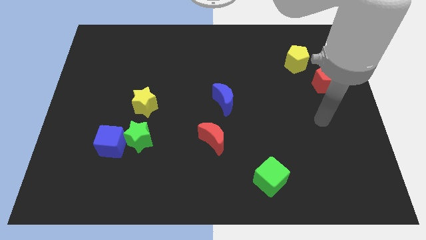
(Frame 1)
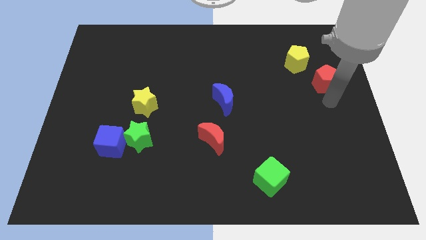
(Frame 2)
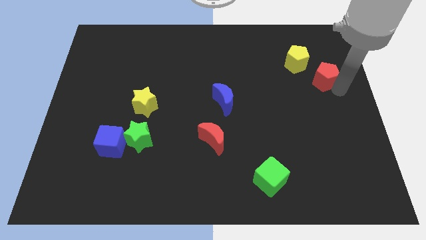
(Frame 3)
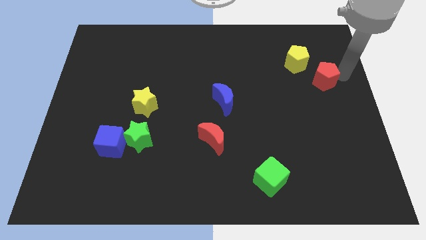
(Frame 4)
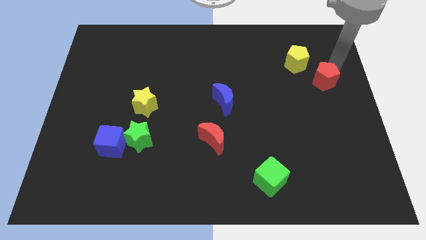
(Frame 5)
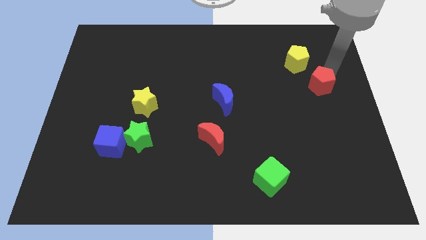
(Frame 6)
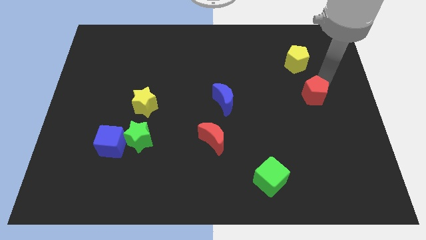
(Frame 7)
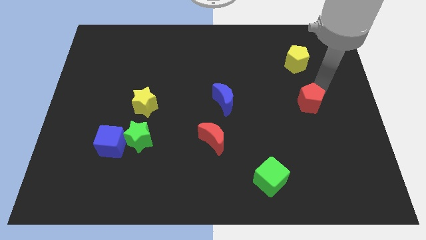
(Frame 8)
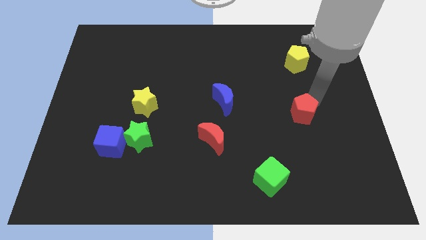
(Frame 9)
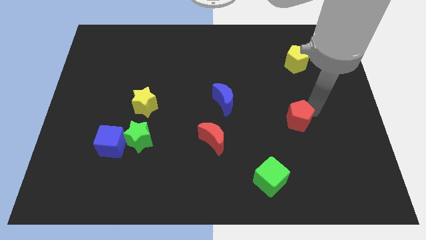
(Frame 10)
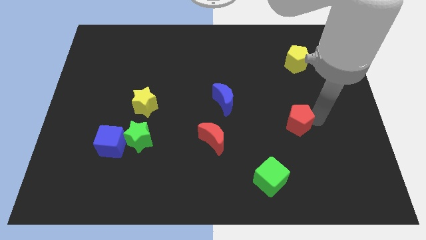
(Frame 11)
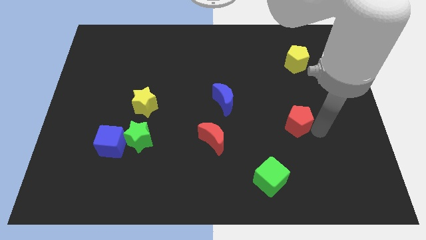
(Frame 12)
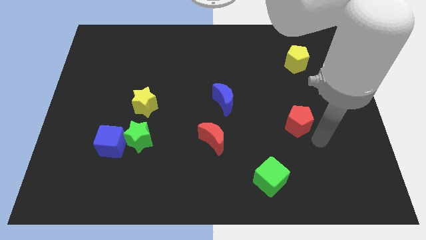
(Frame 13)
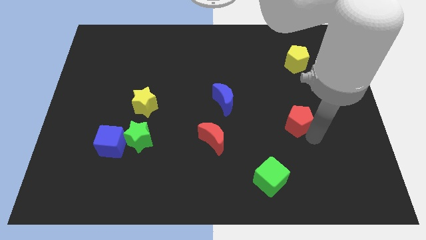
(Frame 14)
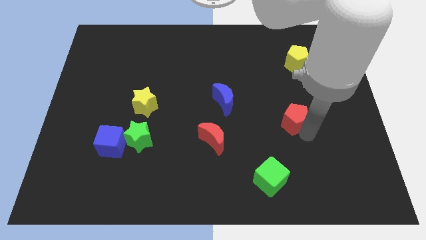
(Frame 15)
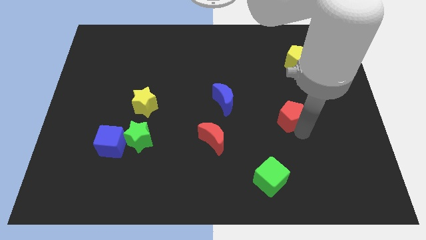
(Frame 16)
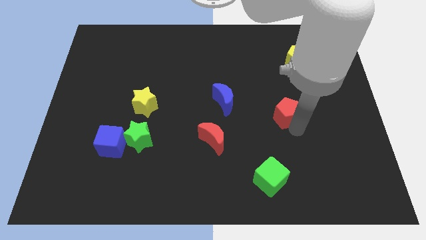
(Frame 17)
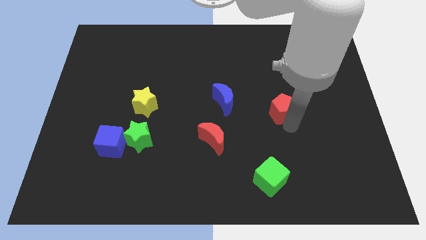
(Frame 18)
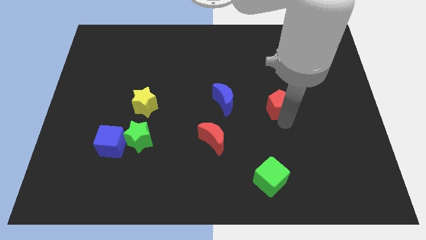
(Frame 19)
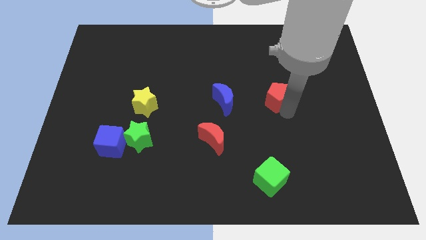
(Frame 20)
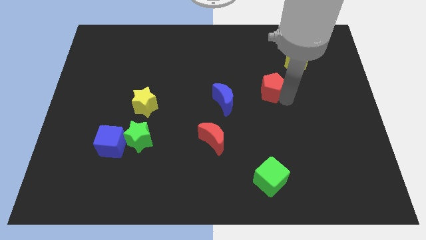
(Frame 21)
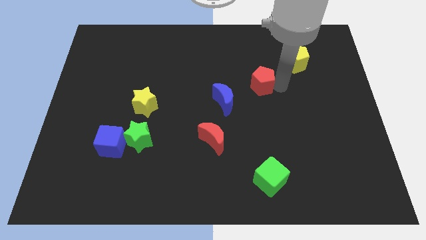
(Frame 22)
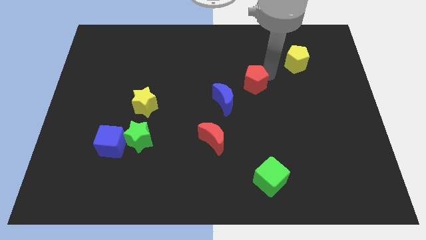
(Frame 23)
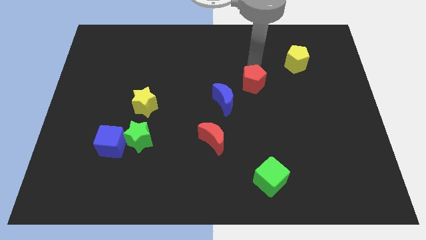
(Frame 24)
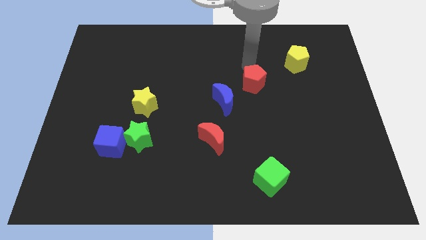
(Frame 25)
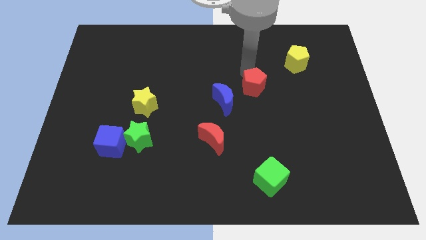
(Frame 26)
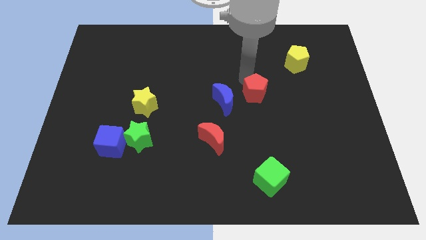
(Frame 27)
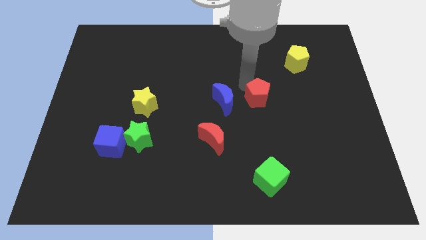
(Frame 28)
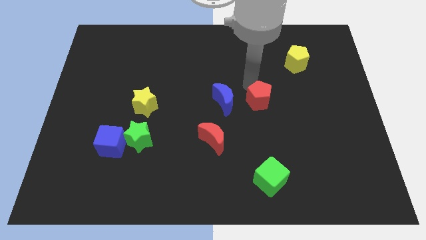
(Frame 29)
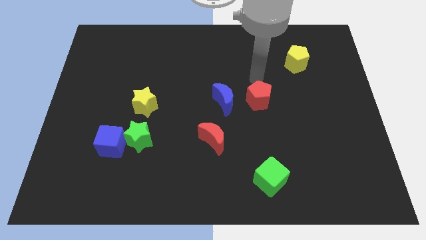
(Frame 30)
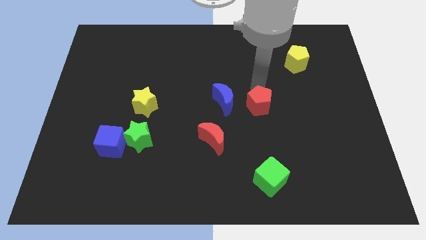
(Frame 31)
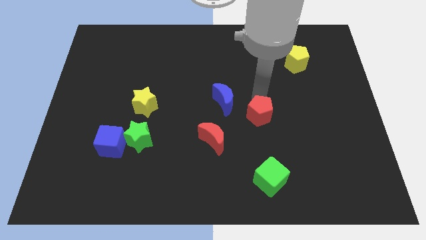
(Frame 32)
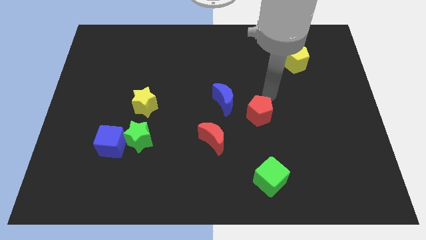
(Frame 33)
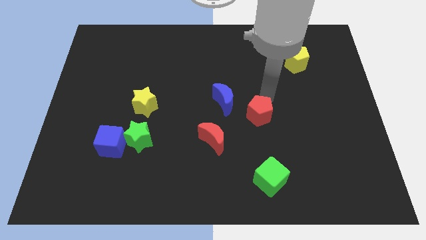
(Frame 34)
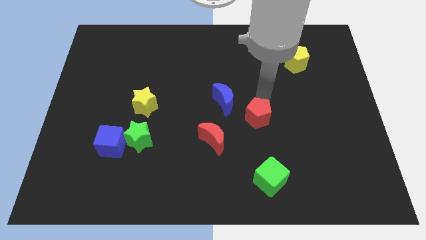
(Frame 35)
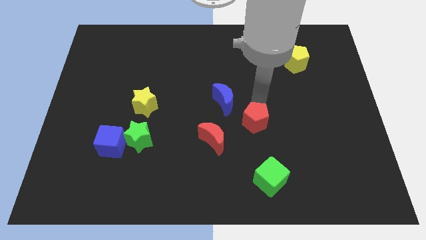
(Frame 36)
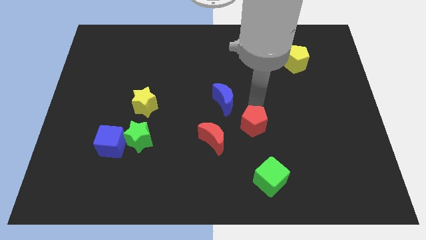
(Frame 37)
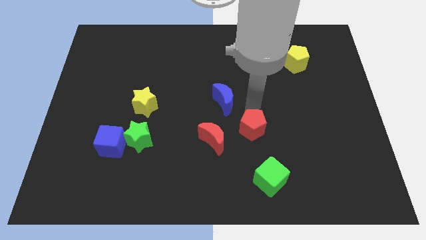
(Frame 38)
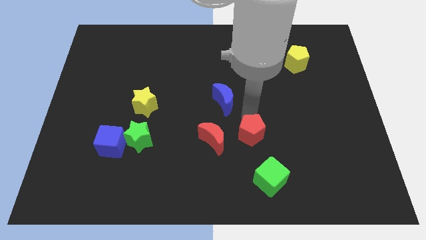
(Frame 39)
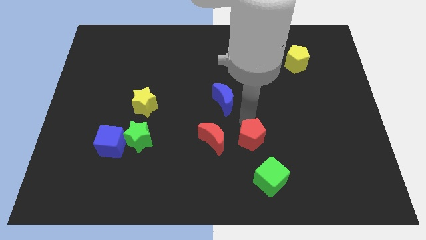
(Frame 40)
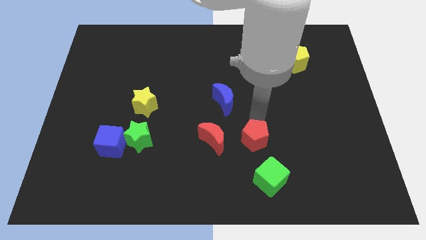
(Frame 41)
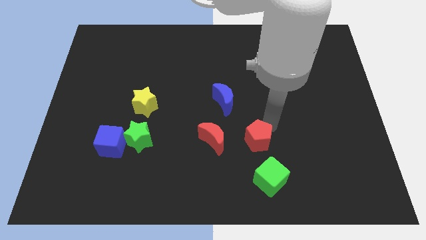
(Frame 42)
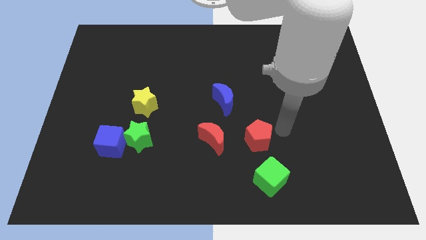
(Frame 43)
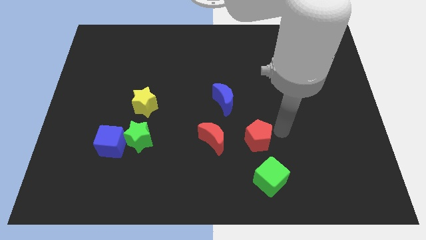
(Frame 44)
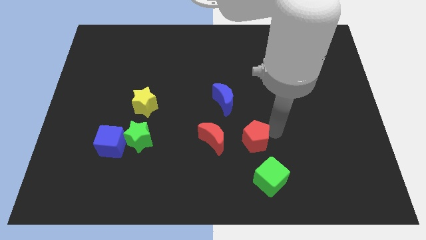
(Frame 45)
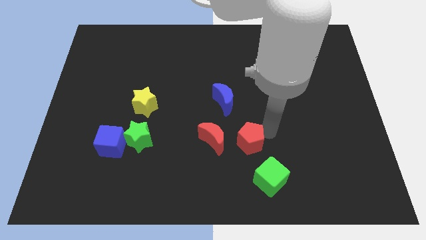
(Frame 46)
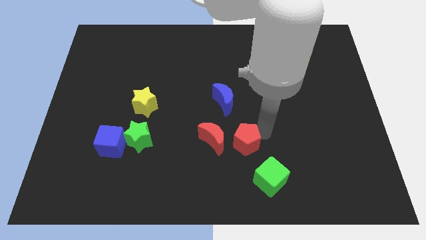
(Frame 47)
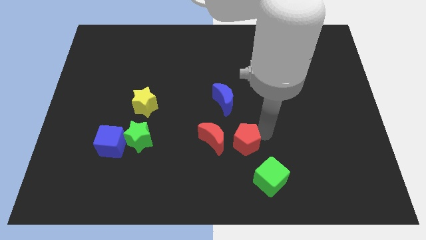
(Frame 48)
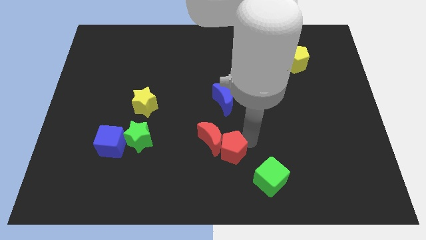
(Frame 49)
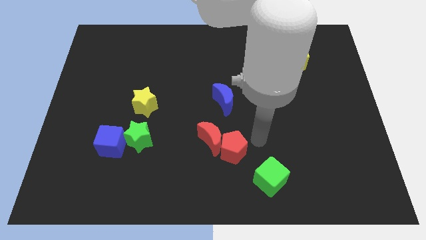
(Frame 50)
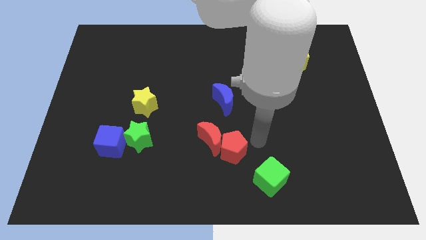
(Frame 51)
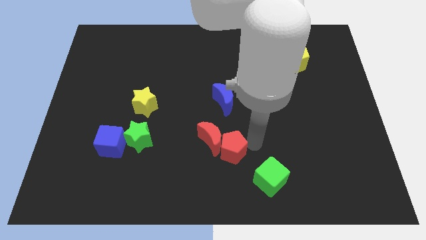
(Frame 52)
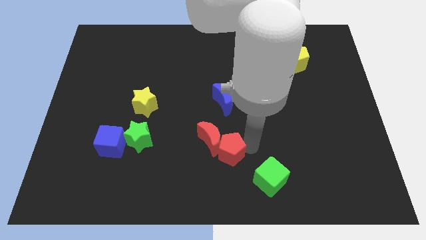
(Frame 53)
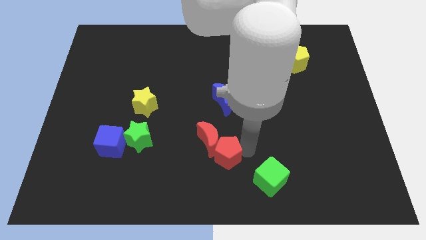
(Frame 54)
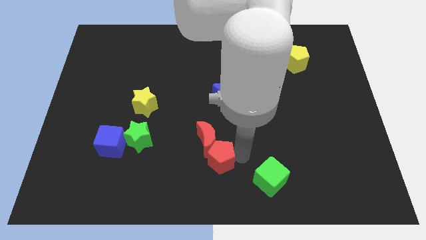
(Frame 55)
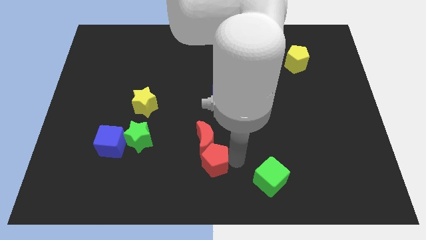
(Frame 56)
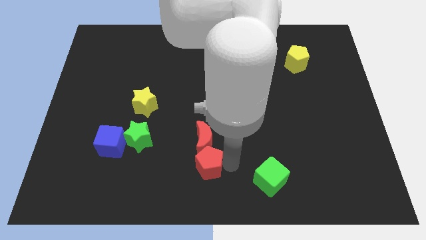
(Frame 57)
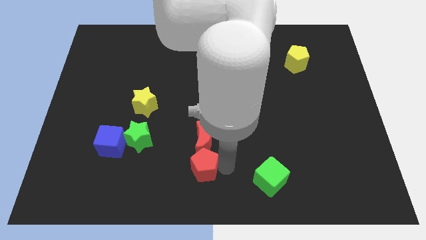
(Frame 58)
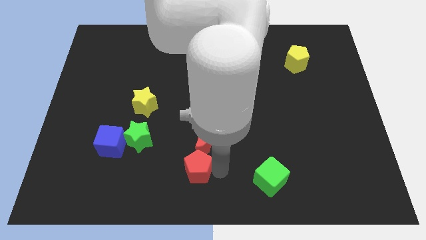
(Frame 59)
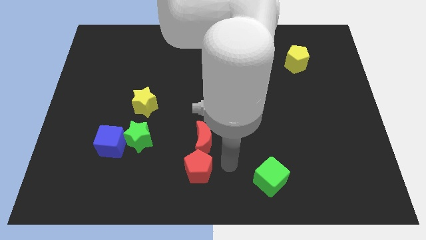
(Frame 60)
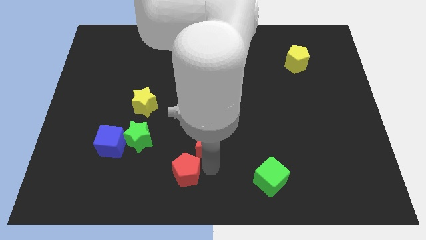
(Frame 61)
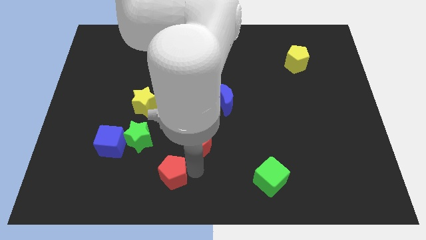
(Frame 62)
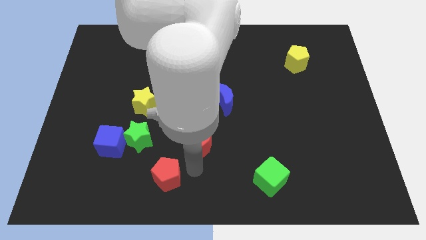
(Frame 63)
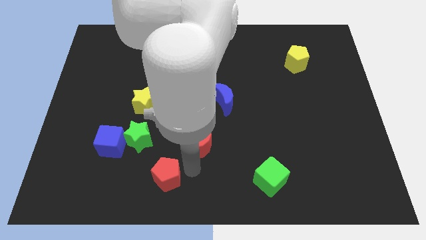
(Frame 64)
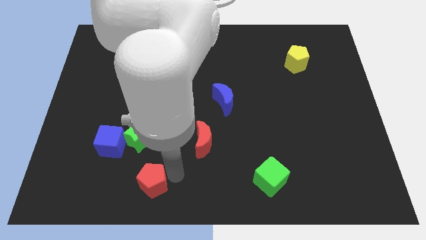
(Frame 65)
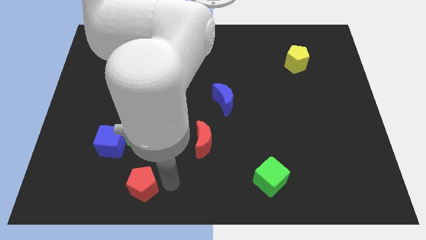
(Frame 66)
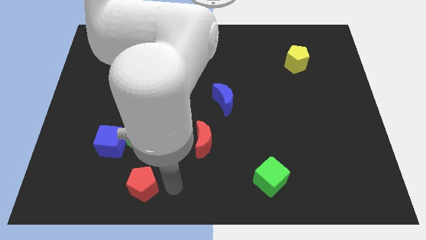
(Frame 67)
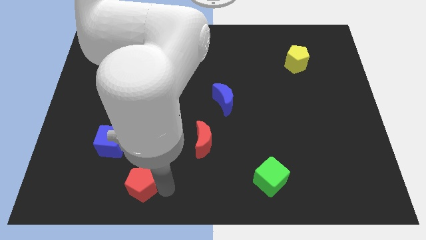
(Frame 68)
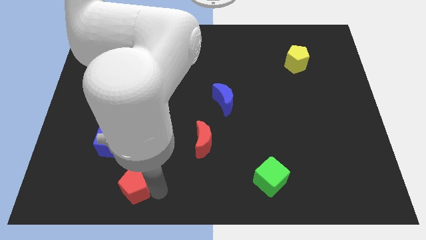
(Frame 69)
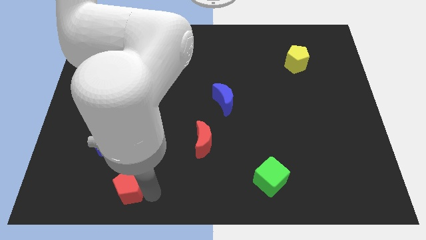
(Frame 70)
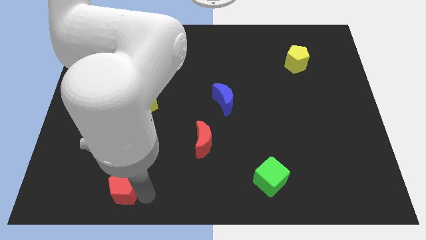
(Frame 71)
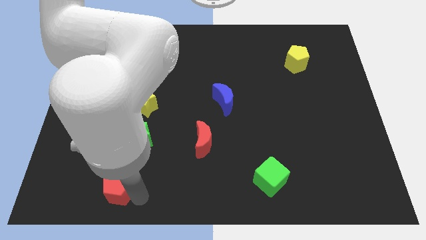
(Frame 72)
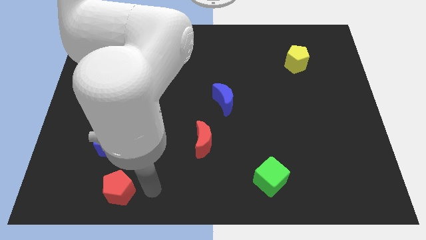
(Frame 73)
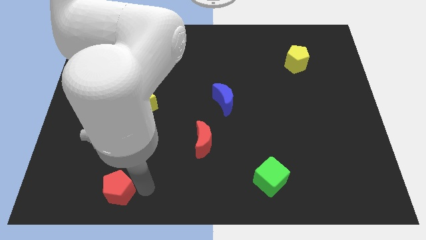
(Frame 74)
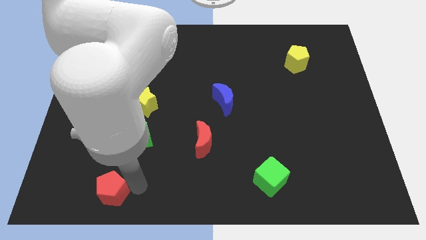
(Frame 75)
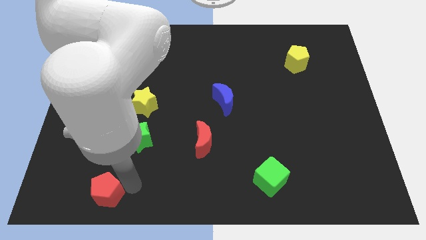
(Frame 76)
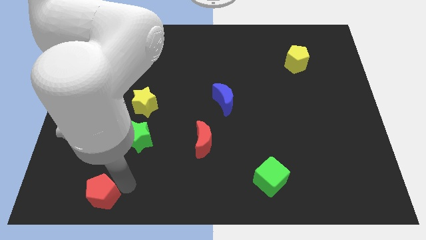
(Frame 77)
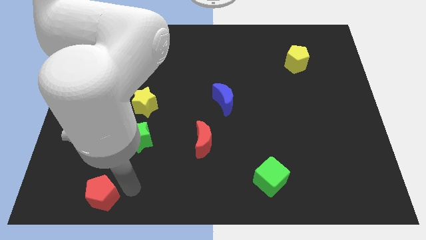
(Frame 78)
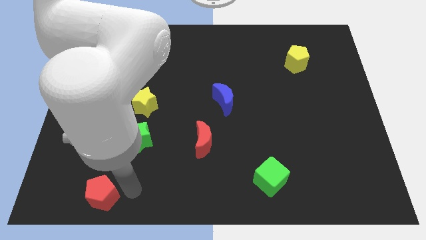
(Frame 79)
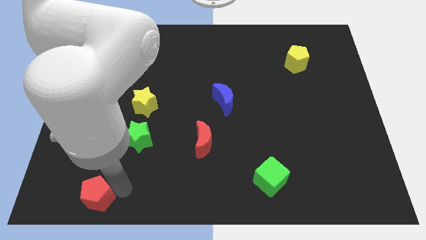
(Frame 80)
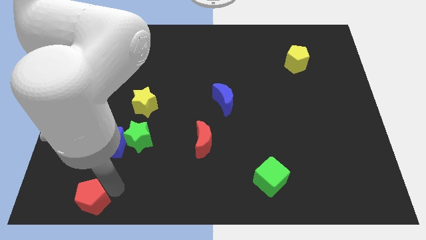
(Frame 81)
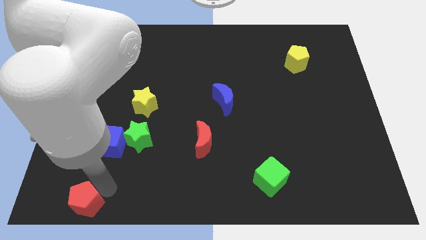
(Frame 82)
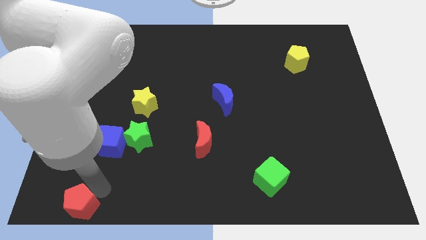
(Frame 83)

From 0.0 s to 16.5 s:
put the red pentagon to the lower left corner
